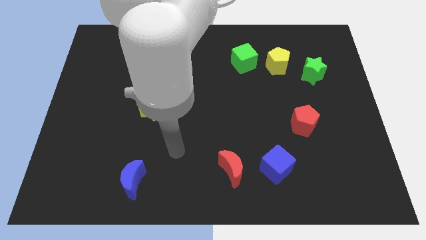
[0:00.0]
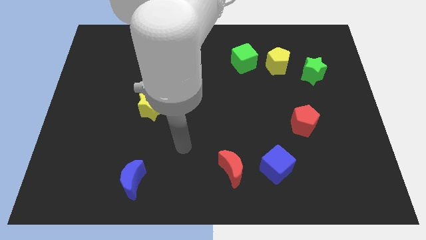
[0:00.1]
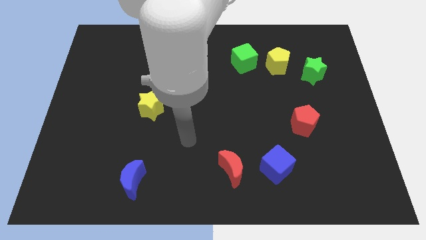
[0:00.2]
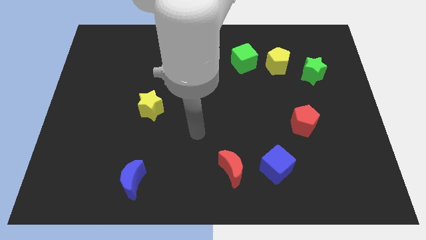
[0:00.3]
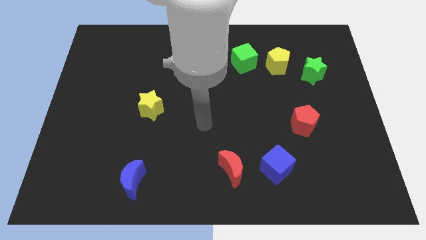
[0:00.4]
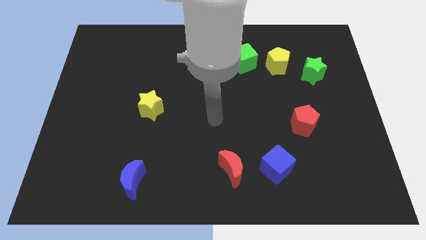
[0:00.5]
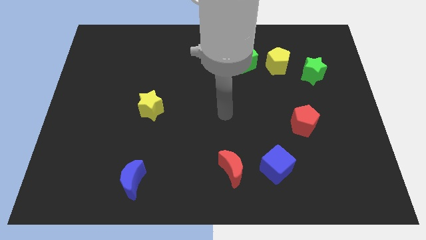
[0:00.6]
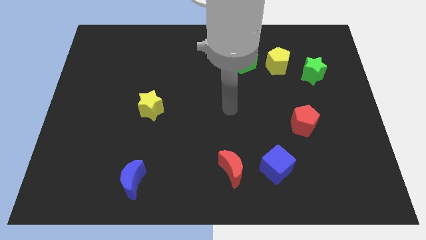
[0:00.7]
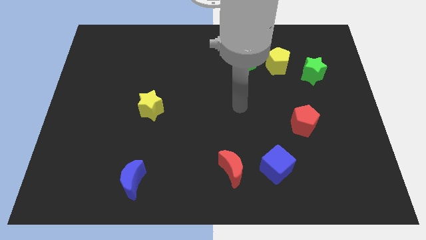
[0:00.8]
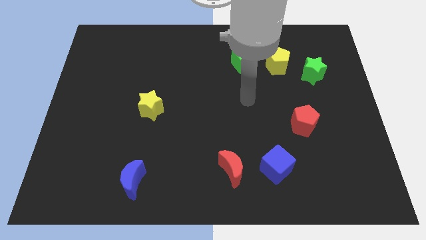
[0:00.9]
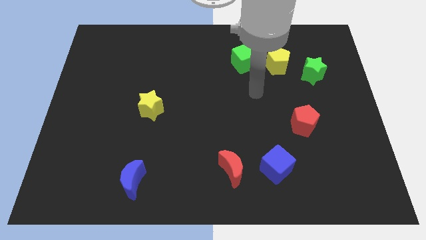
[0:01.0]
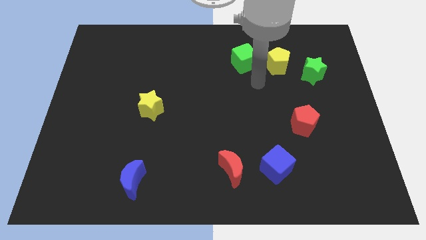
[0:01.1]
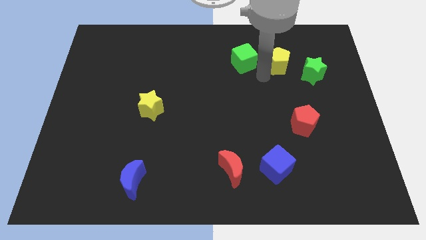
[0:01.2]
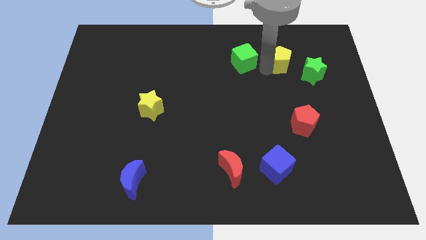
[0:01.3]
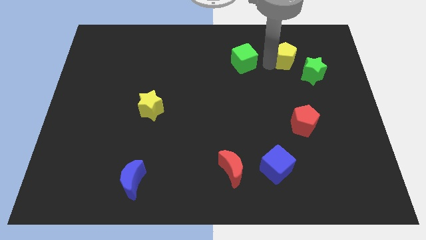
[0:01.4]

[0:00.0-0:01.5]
separate the green cube from the yellow pentagon

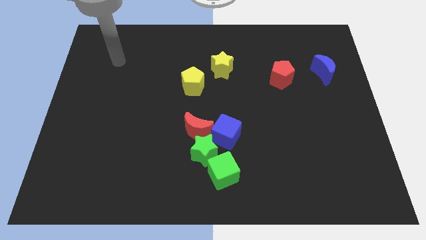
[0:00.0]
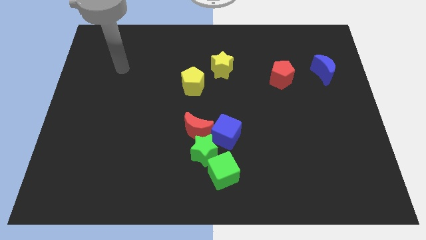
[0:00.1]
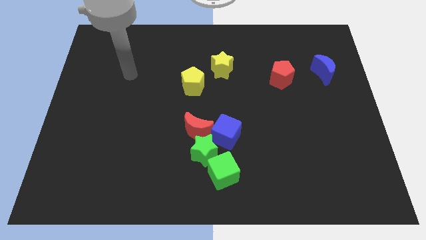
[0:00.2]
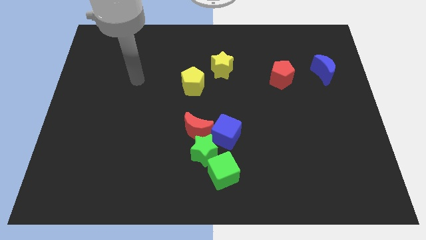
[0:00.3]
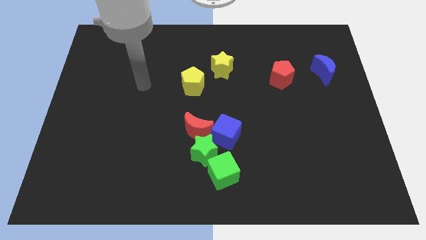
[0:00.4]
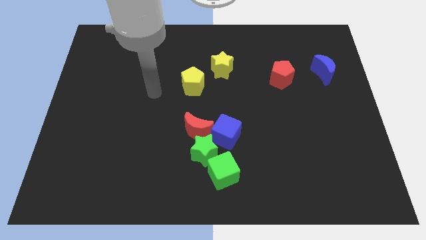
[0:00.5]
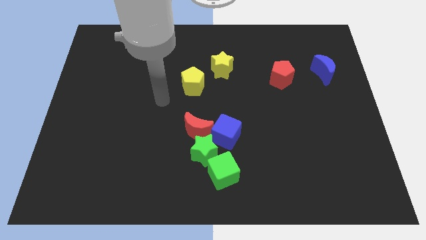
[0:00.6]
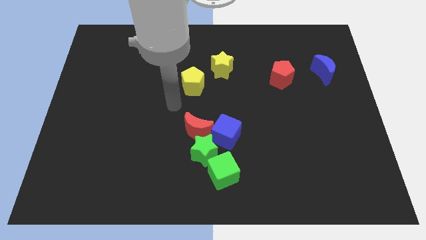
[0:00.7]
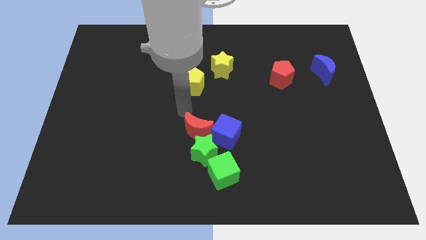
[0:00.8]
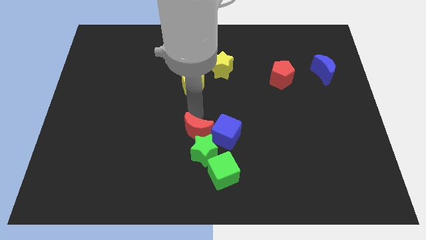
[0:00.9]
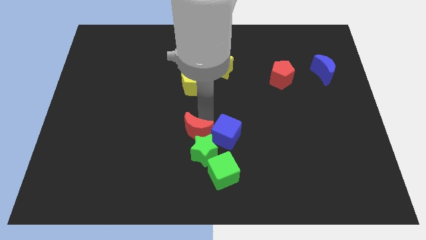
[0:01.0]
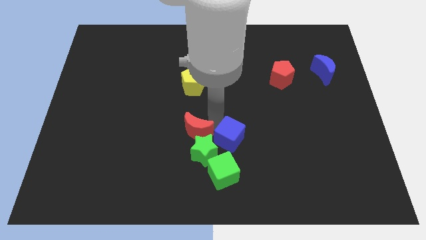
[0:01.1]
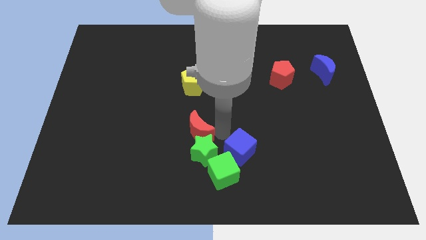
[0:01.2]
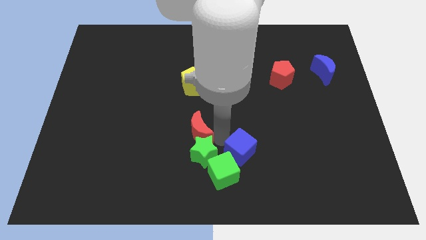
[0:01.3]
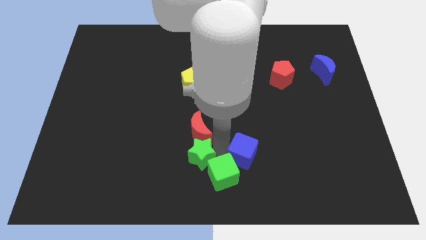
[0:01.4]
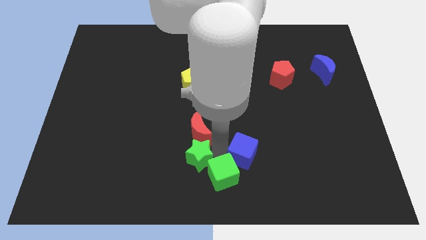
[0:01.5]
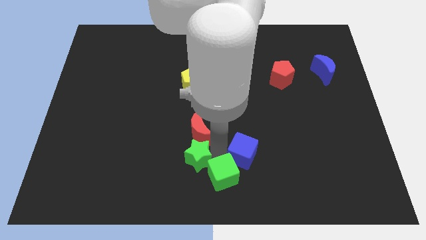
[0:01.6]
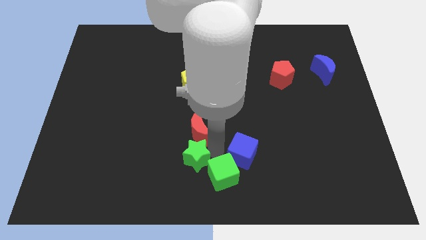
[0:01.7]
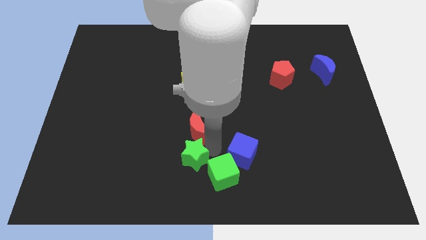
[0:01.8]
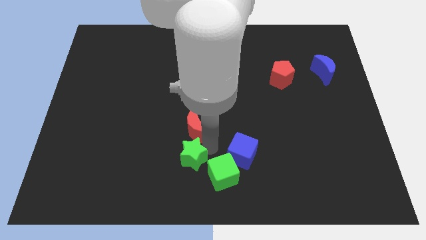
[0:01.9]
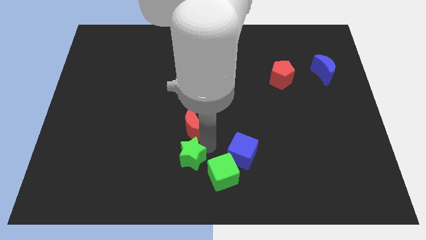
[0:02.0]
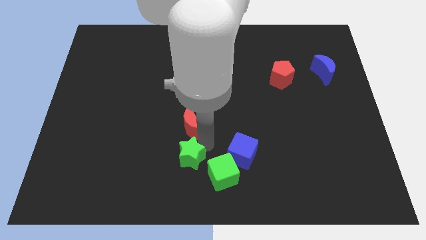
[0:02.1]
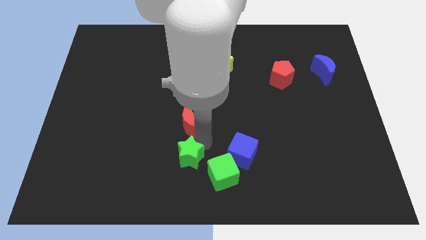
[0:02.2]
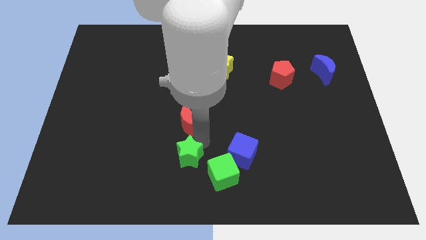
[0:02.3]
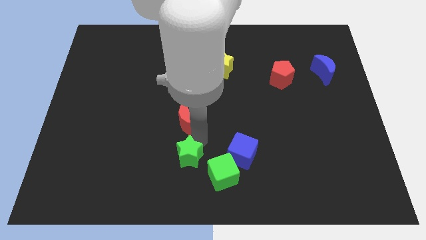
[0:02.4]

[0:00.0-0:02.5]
move the red moon away from the green star and blue cube

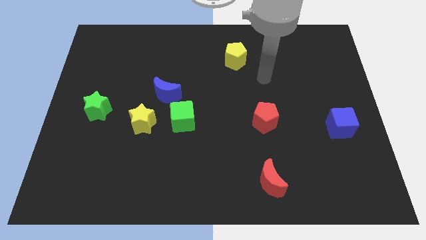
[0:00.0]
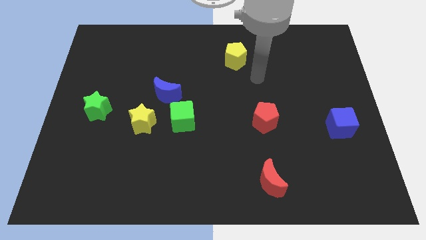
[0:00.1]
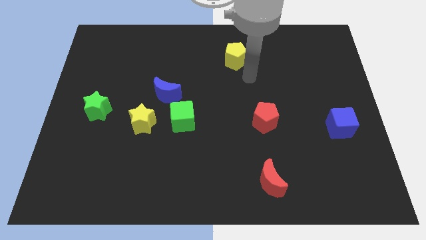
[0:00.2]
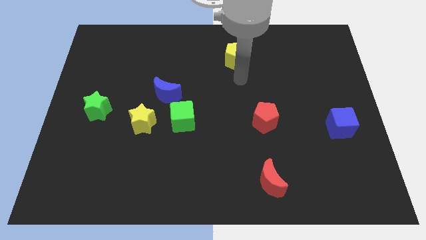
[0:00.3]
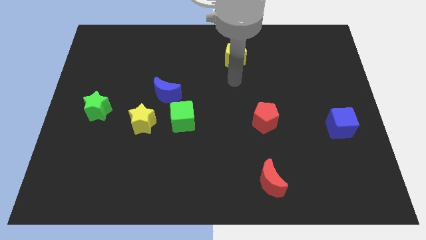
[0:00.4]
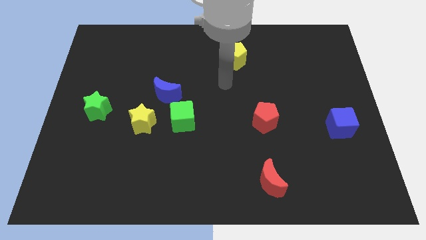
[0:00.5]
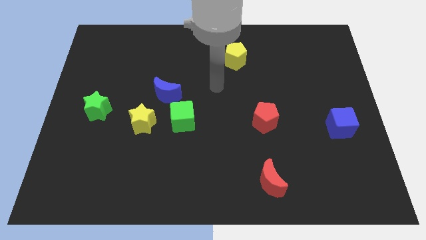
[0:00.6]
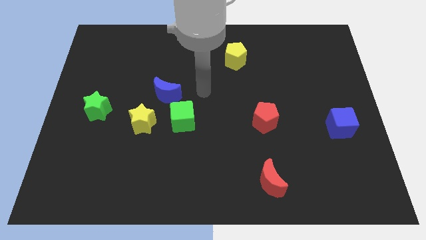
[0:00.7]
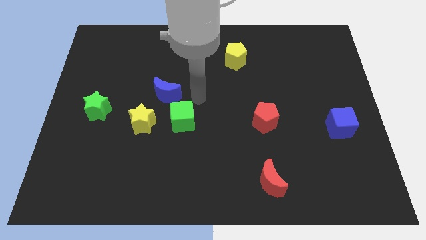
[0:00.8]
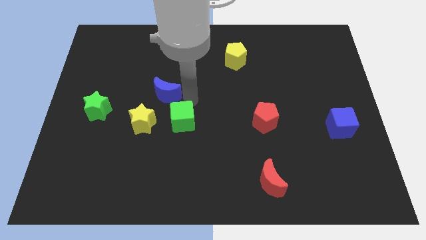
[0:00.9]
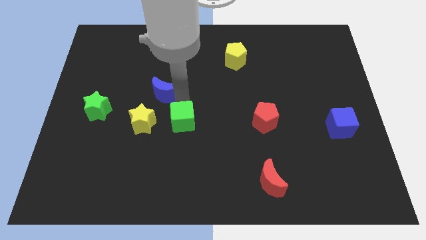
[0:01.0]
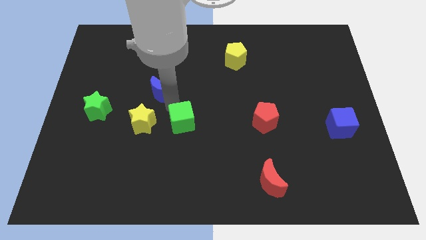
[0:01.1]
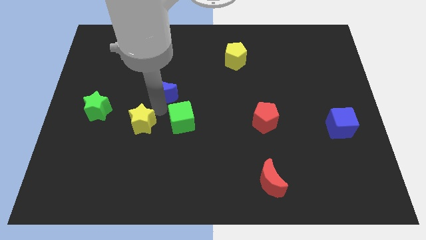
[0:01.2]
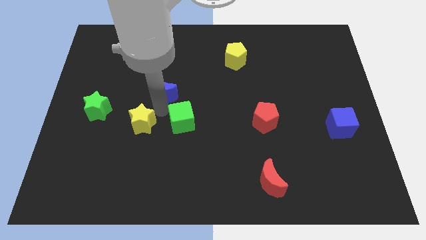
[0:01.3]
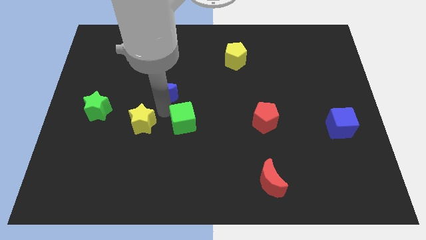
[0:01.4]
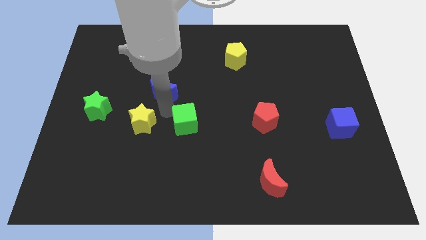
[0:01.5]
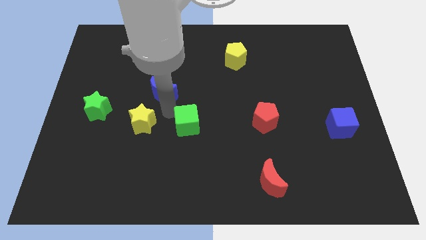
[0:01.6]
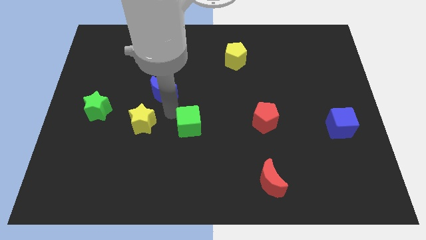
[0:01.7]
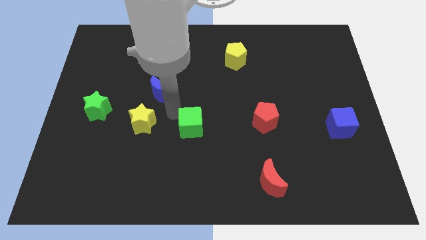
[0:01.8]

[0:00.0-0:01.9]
move the green cube away from the blue moon and yellow star

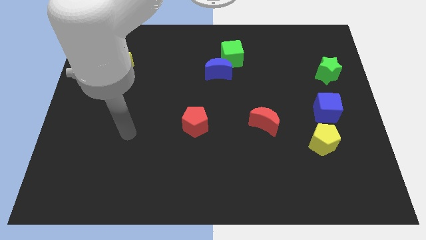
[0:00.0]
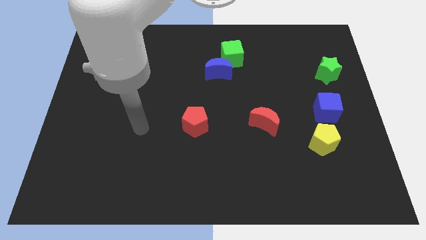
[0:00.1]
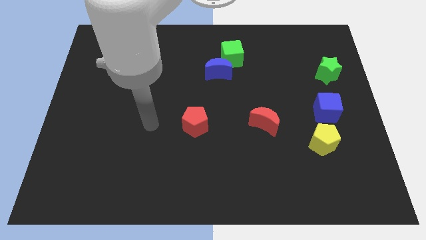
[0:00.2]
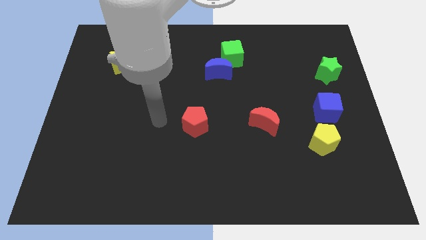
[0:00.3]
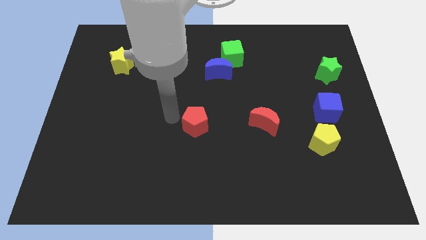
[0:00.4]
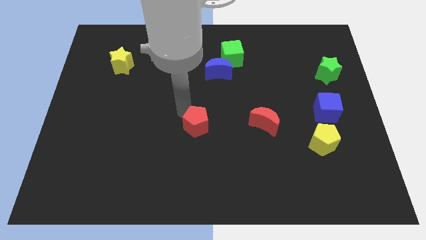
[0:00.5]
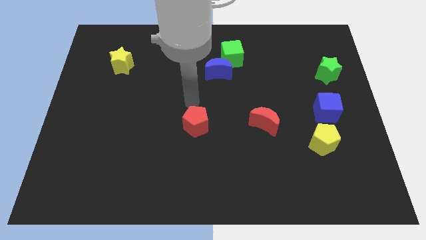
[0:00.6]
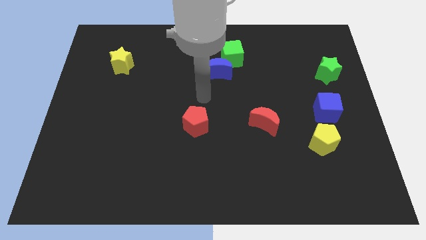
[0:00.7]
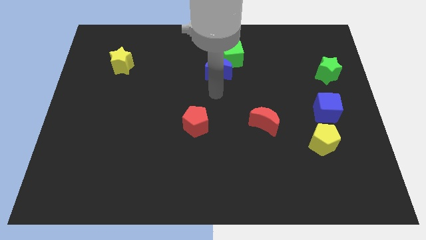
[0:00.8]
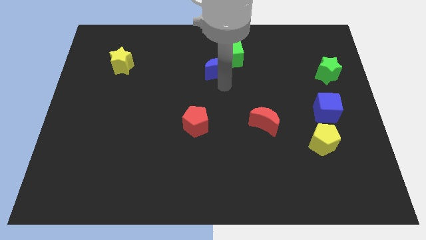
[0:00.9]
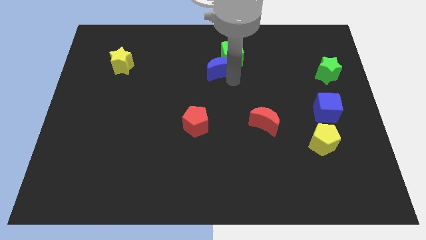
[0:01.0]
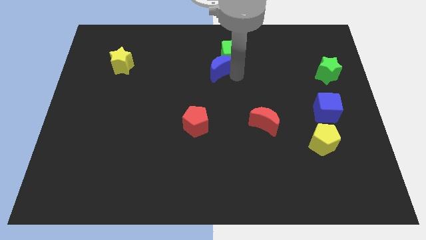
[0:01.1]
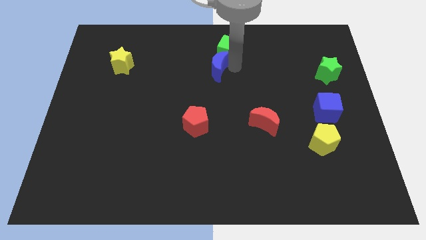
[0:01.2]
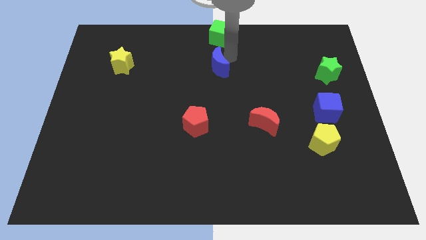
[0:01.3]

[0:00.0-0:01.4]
separate the blue moon from the green cube

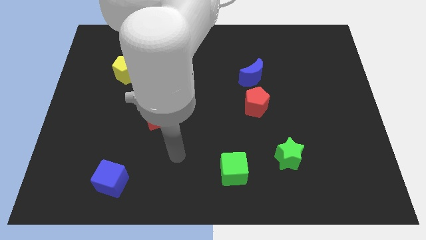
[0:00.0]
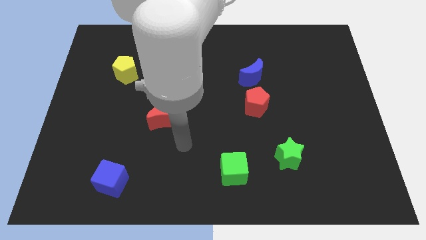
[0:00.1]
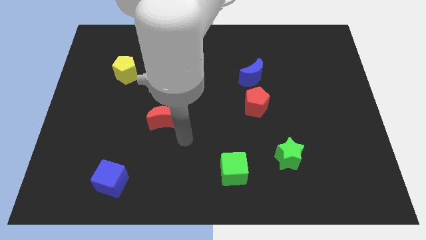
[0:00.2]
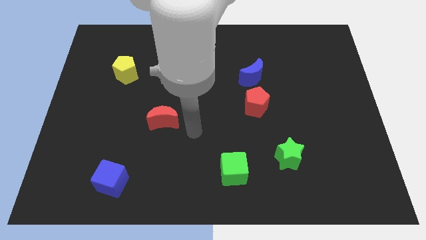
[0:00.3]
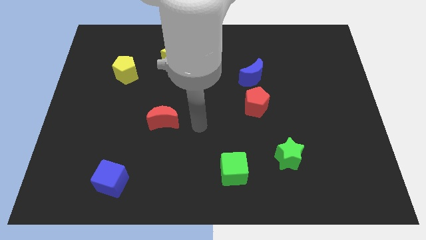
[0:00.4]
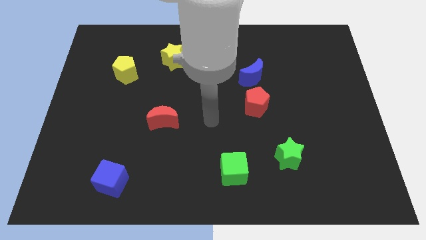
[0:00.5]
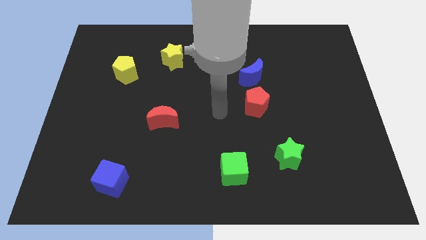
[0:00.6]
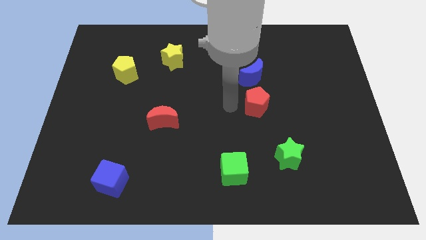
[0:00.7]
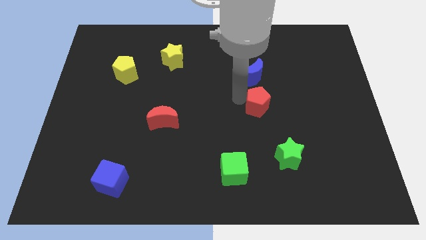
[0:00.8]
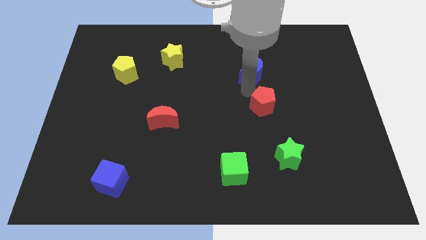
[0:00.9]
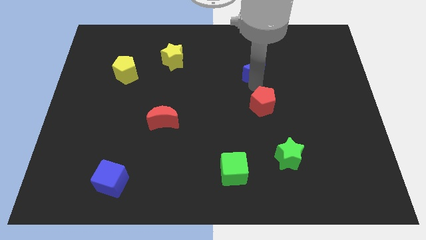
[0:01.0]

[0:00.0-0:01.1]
pull the red pentagon apart from the blue moon

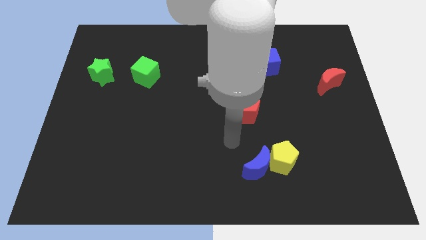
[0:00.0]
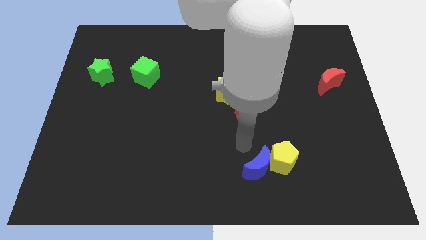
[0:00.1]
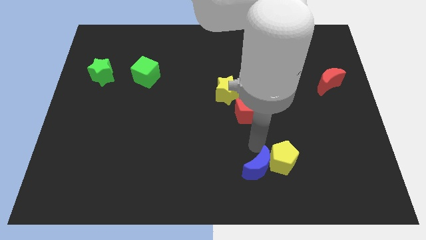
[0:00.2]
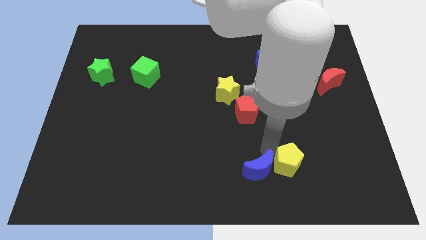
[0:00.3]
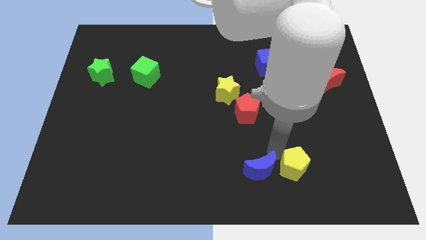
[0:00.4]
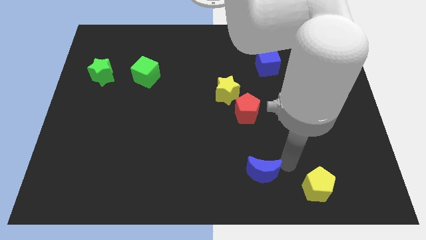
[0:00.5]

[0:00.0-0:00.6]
separate the blue moon from the yellow pentagon

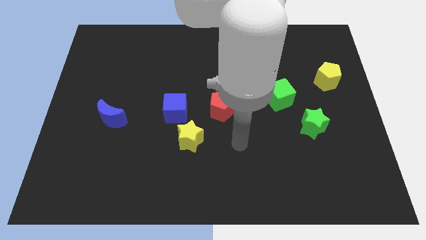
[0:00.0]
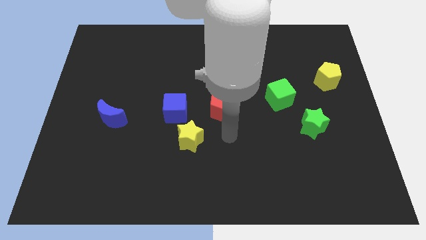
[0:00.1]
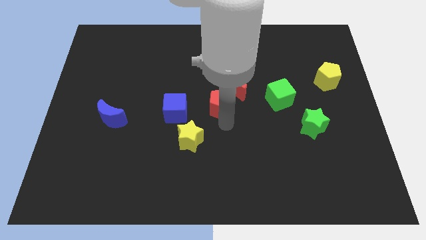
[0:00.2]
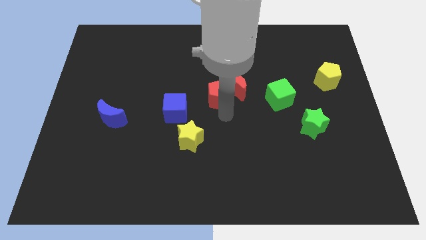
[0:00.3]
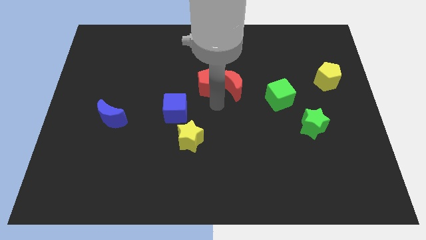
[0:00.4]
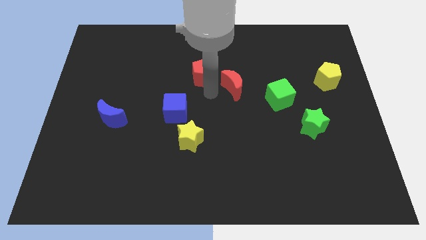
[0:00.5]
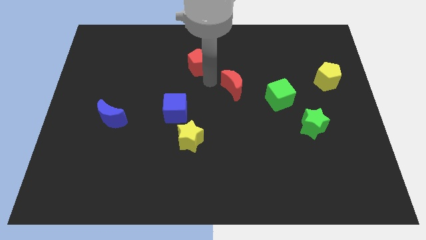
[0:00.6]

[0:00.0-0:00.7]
pull the red moon apart from the red pentagon
